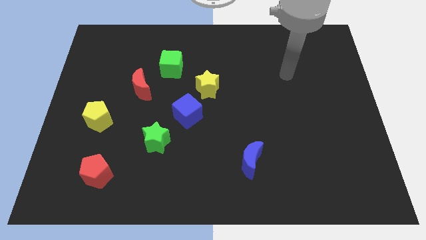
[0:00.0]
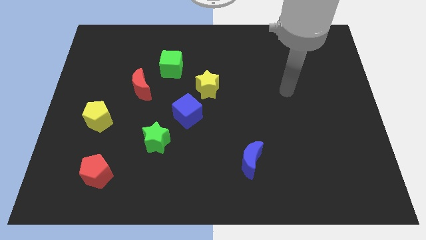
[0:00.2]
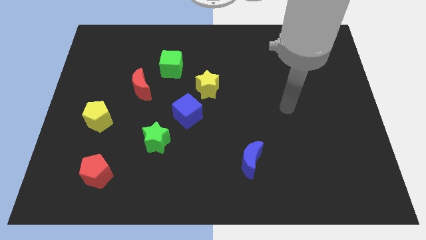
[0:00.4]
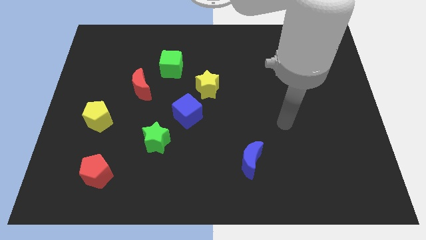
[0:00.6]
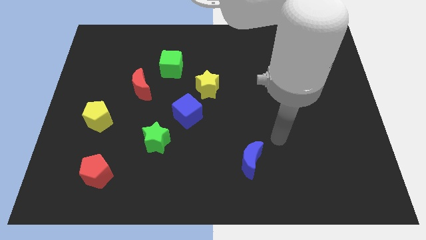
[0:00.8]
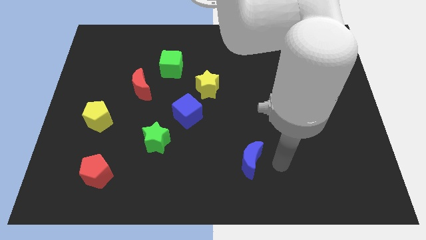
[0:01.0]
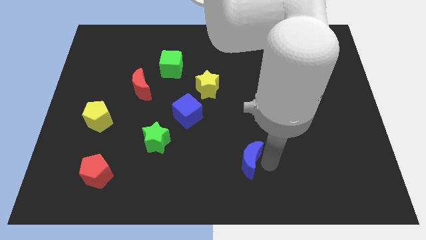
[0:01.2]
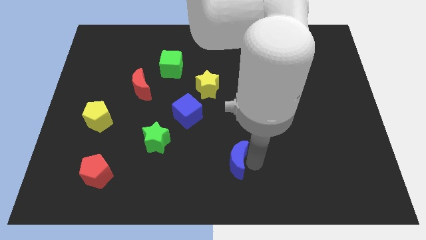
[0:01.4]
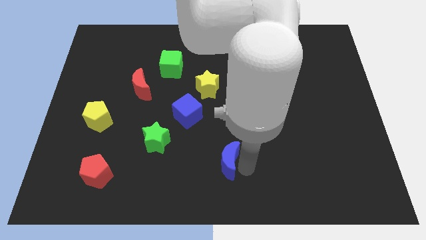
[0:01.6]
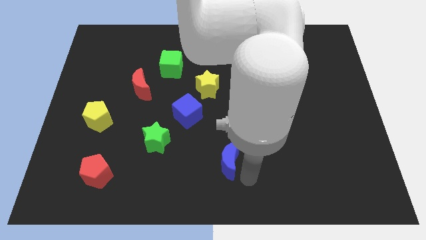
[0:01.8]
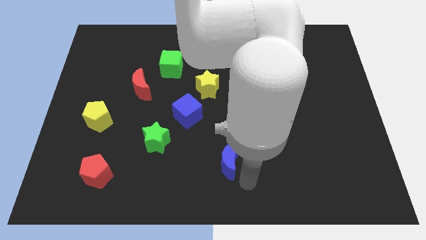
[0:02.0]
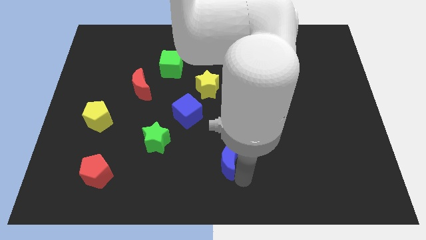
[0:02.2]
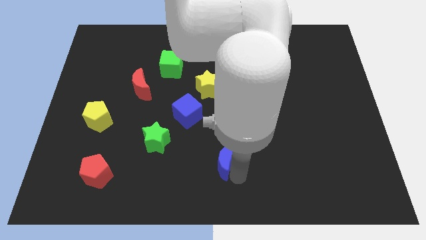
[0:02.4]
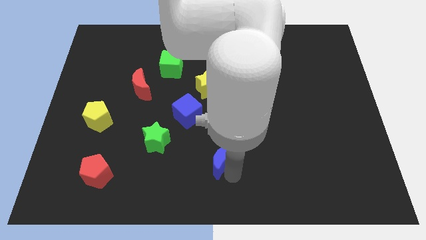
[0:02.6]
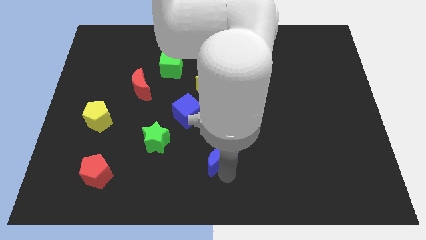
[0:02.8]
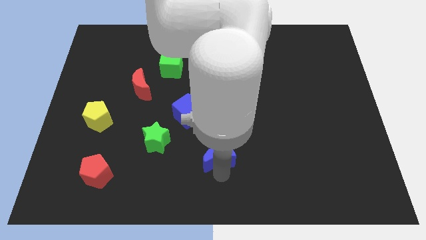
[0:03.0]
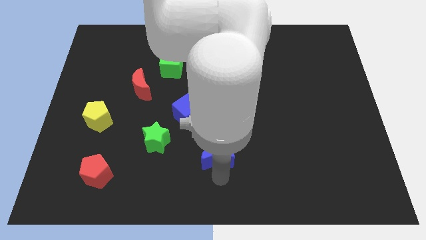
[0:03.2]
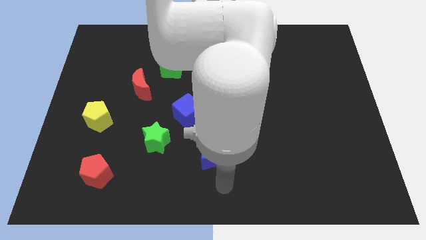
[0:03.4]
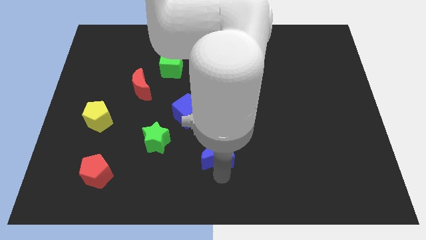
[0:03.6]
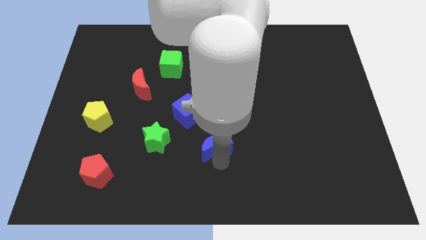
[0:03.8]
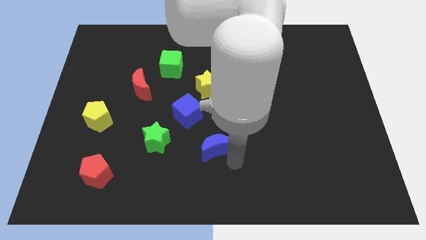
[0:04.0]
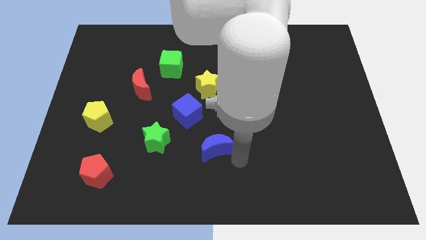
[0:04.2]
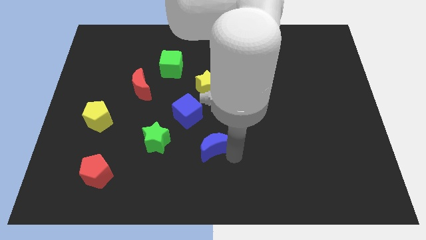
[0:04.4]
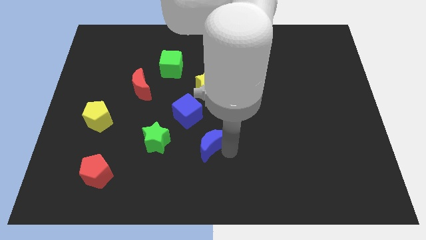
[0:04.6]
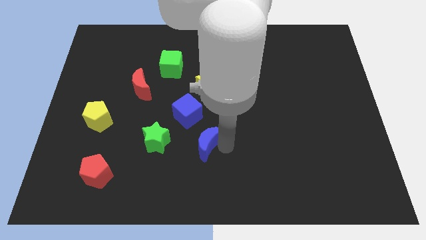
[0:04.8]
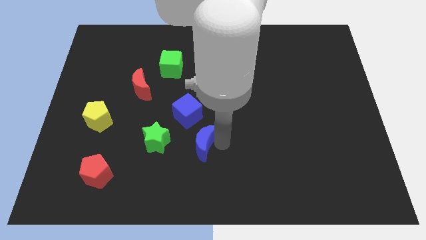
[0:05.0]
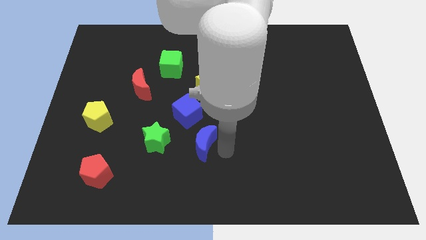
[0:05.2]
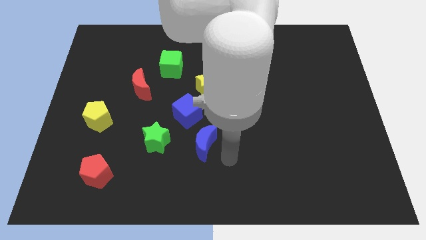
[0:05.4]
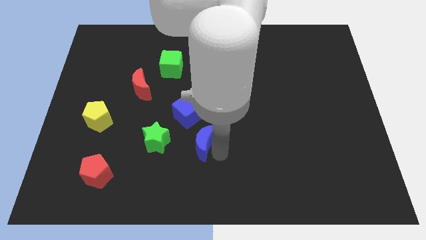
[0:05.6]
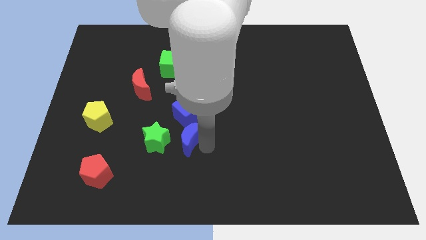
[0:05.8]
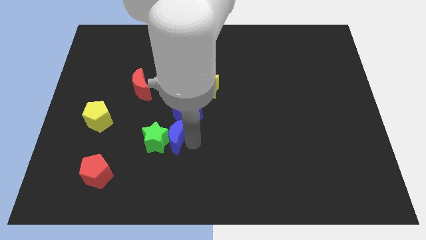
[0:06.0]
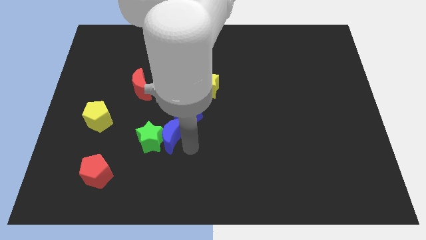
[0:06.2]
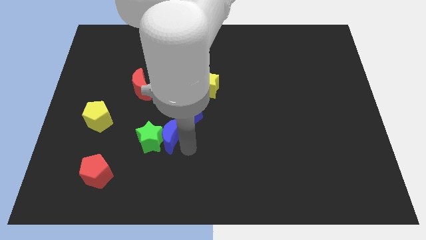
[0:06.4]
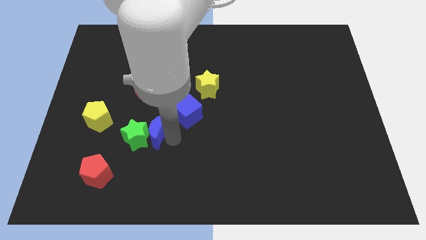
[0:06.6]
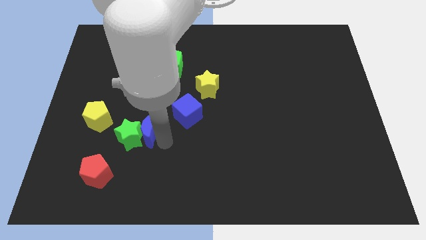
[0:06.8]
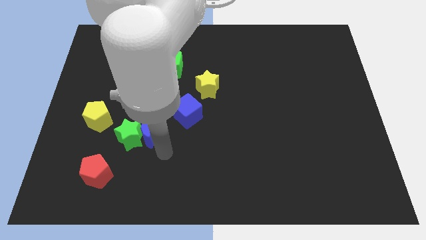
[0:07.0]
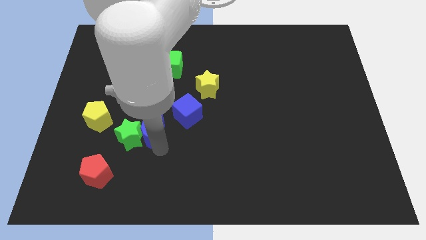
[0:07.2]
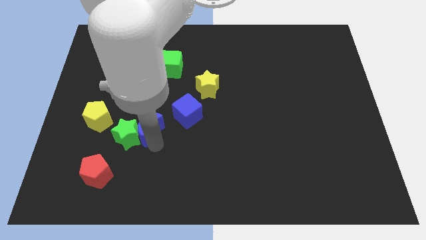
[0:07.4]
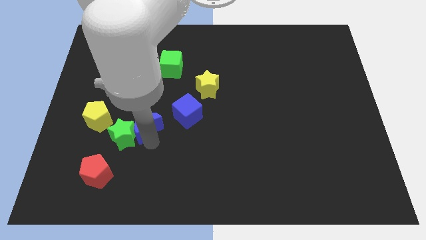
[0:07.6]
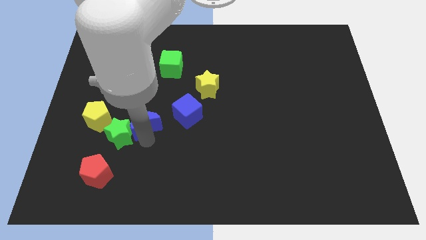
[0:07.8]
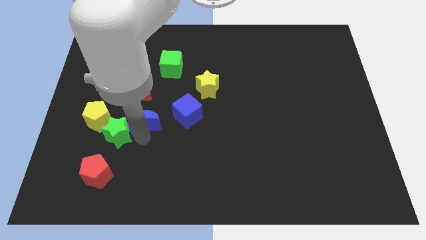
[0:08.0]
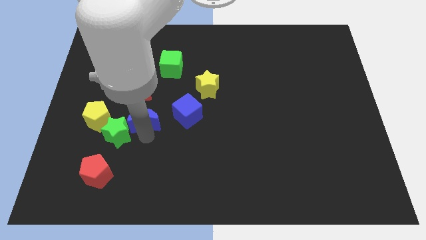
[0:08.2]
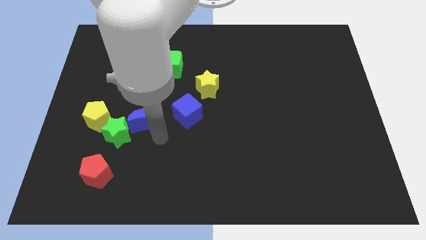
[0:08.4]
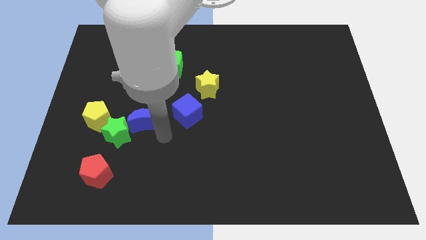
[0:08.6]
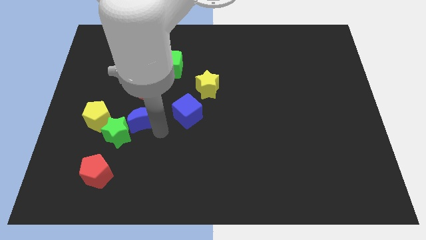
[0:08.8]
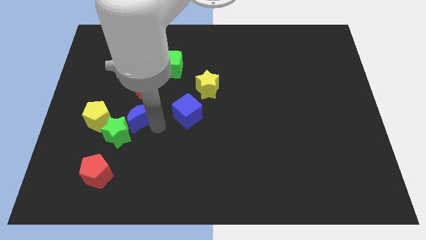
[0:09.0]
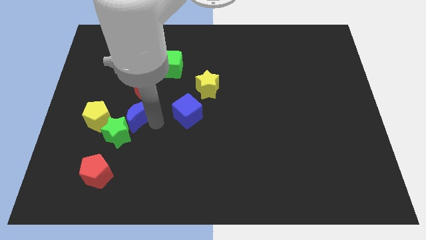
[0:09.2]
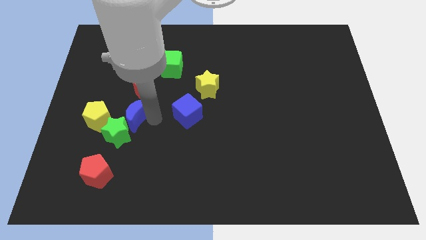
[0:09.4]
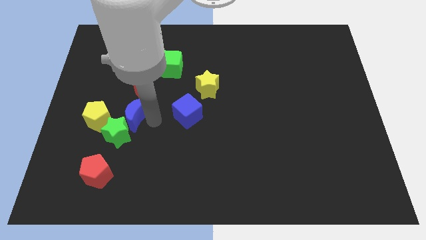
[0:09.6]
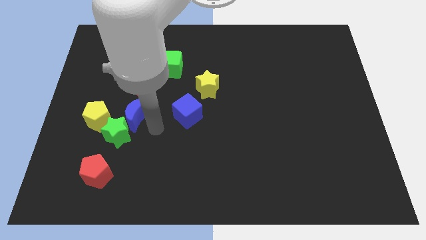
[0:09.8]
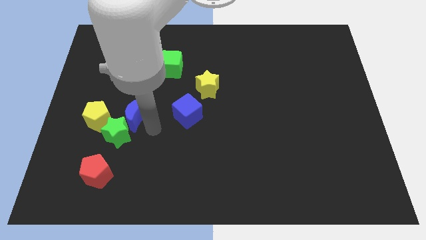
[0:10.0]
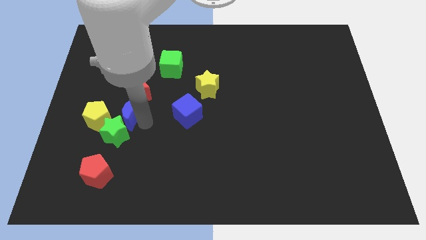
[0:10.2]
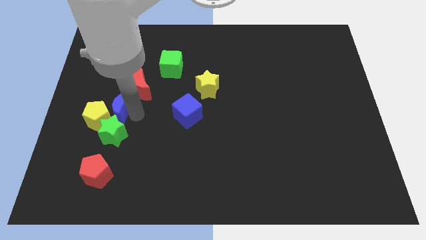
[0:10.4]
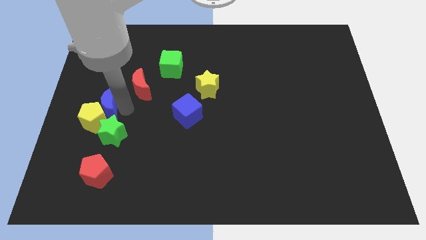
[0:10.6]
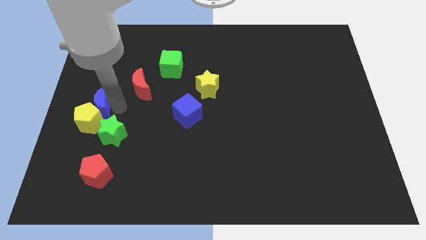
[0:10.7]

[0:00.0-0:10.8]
slide the blue moon to the left side

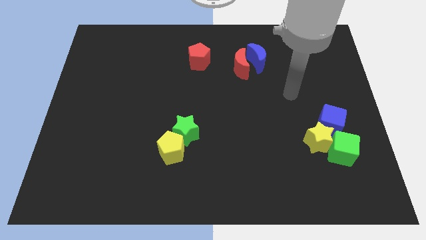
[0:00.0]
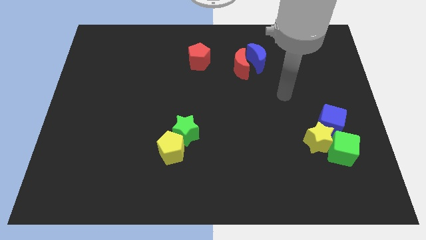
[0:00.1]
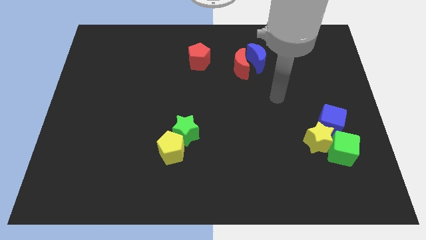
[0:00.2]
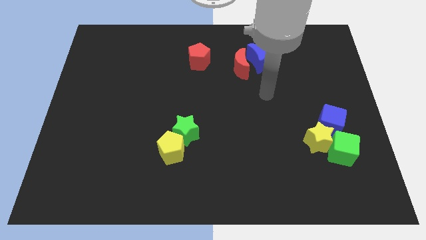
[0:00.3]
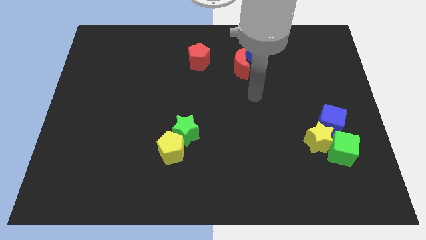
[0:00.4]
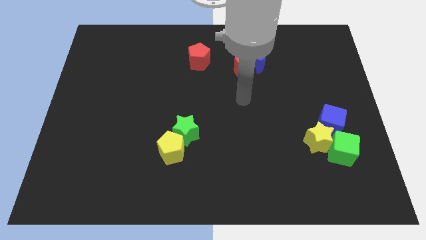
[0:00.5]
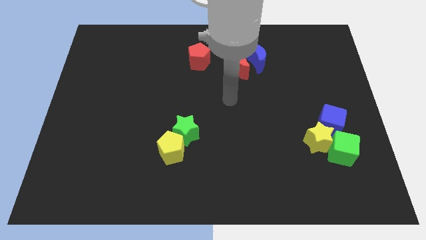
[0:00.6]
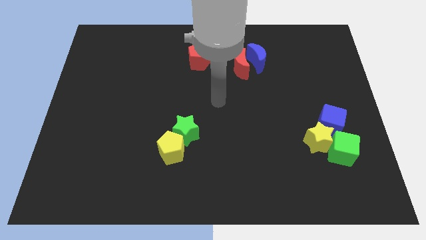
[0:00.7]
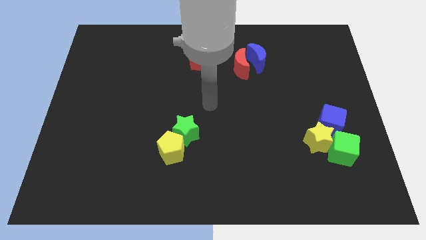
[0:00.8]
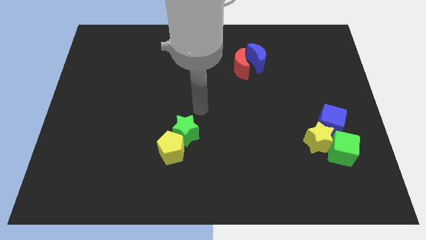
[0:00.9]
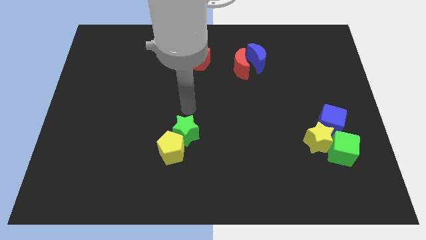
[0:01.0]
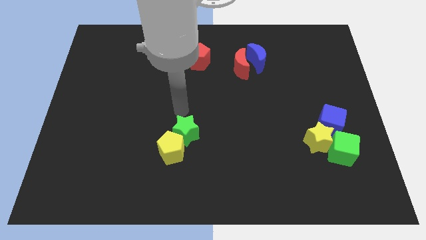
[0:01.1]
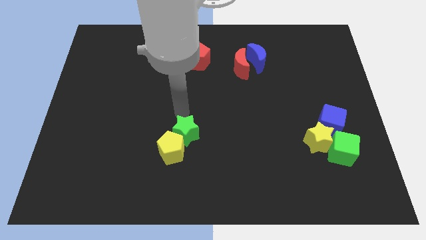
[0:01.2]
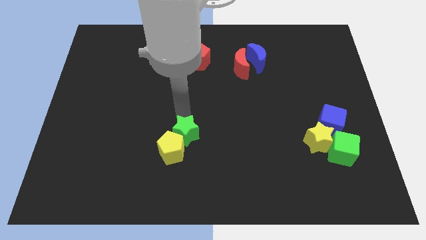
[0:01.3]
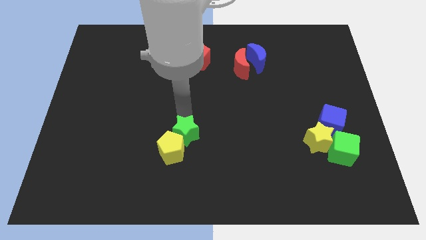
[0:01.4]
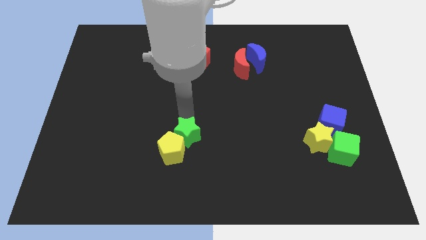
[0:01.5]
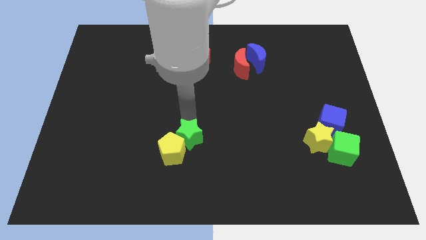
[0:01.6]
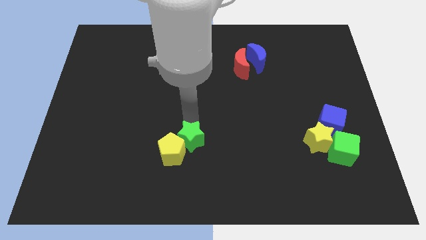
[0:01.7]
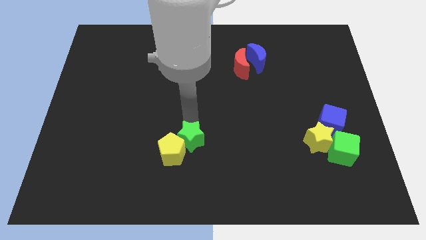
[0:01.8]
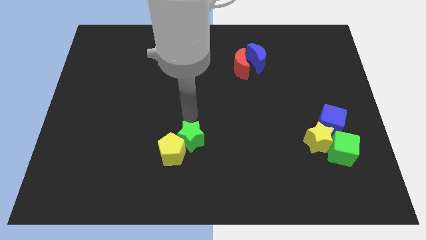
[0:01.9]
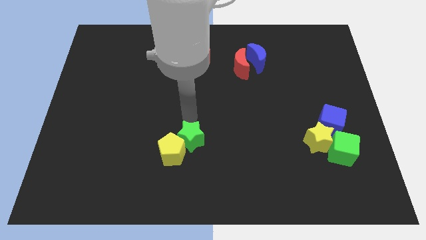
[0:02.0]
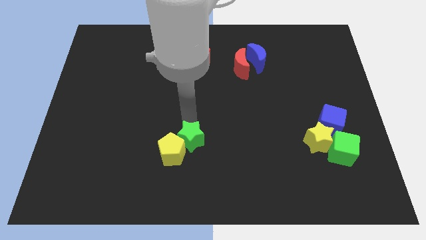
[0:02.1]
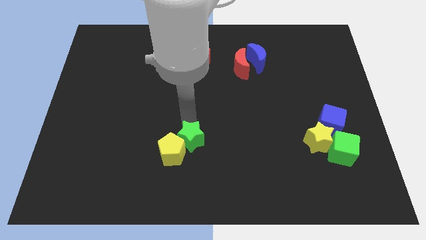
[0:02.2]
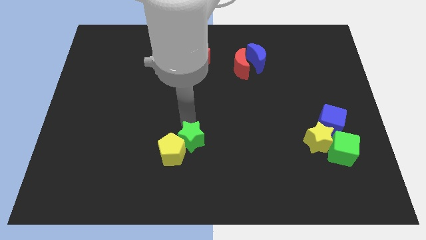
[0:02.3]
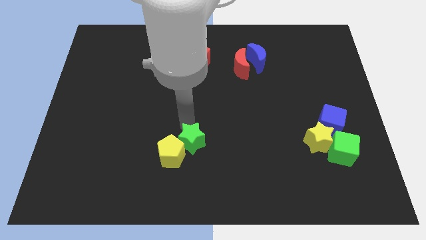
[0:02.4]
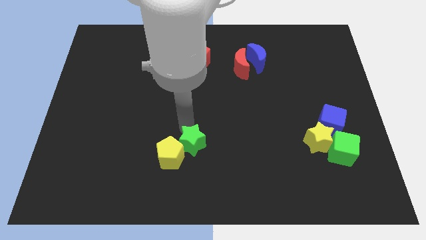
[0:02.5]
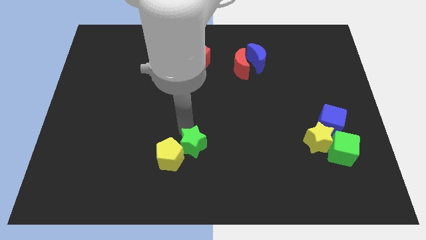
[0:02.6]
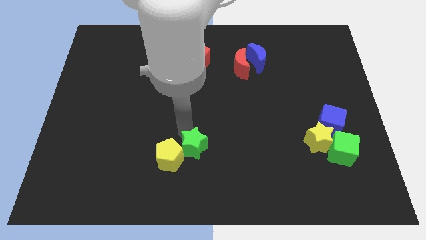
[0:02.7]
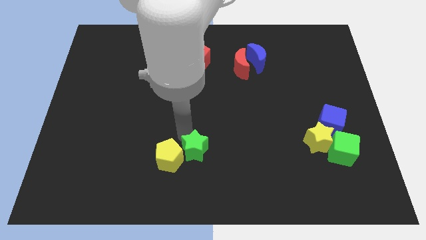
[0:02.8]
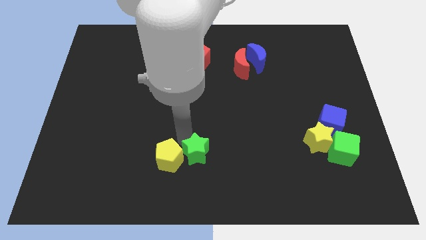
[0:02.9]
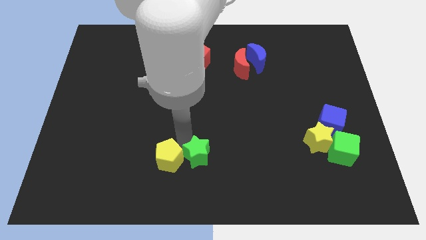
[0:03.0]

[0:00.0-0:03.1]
move the green star to the bottom
